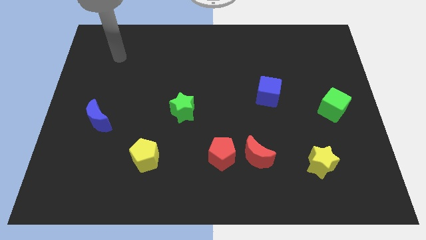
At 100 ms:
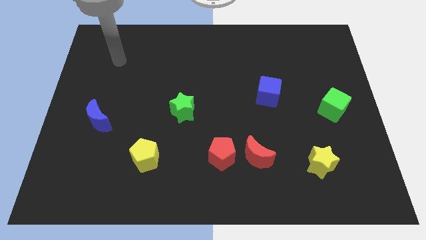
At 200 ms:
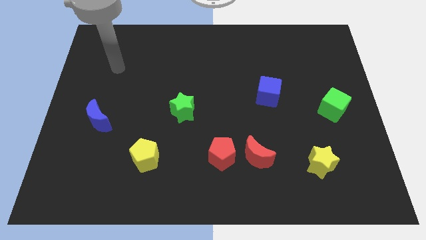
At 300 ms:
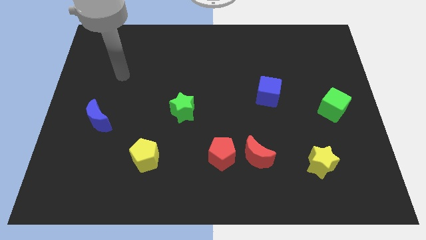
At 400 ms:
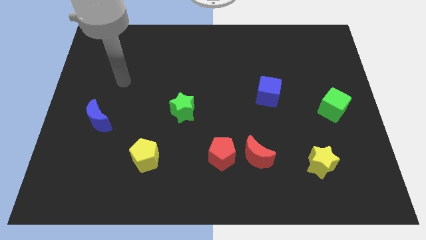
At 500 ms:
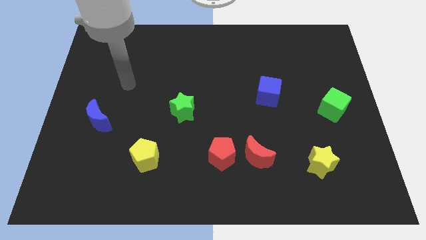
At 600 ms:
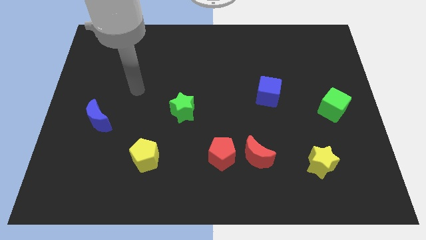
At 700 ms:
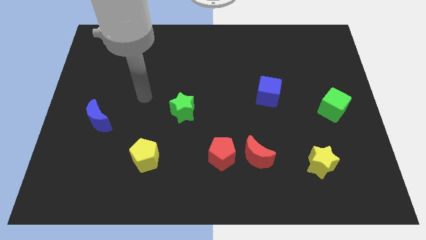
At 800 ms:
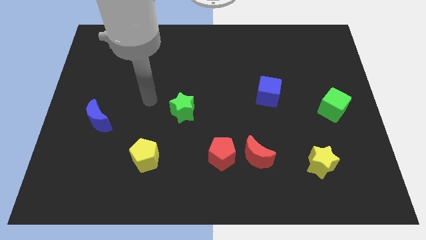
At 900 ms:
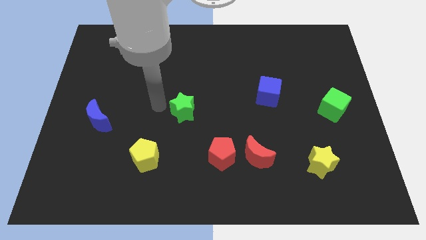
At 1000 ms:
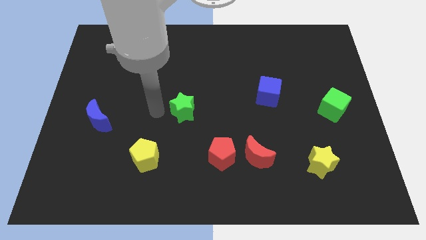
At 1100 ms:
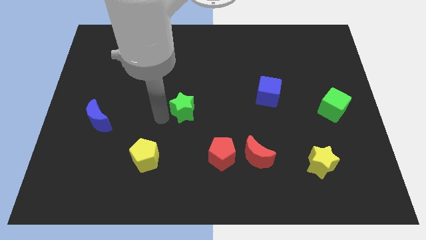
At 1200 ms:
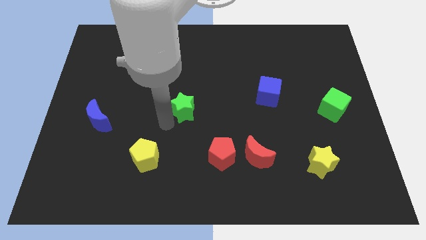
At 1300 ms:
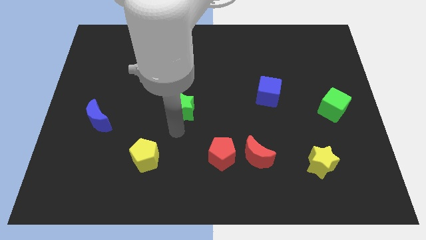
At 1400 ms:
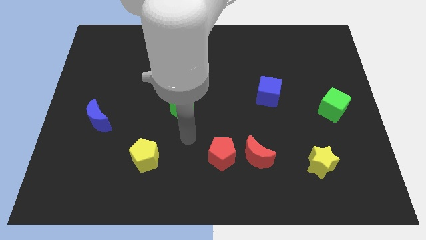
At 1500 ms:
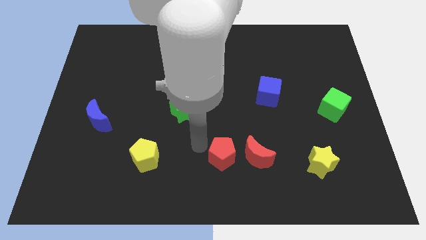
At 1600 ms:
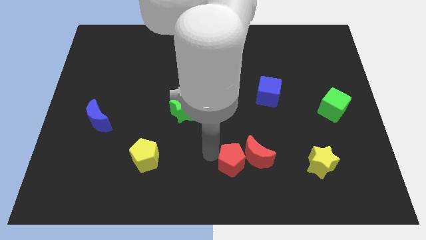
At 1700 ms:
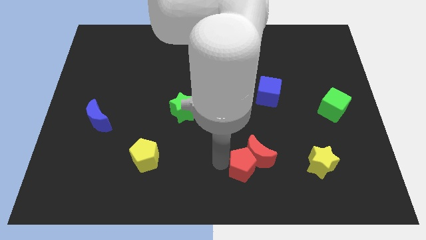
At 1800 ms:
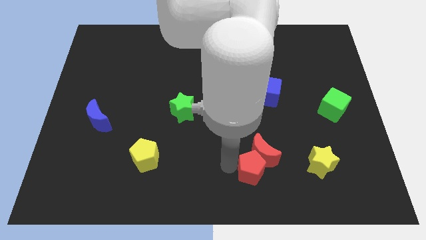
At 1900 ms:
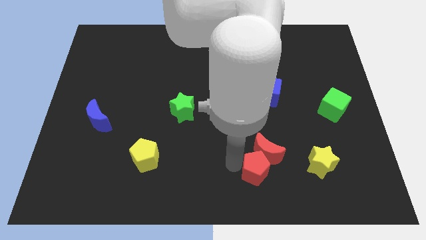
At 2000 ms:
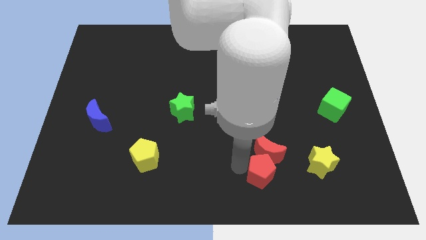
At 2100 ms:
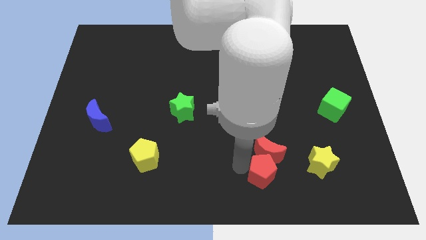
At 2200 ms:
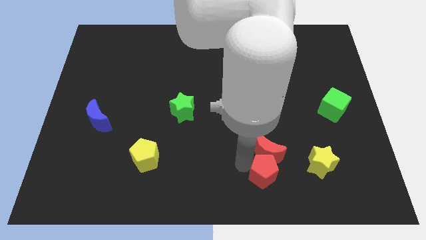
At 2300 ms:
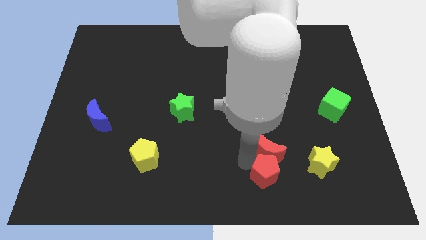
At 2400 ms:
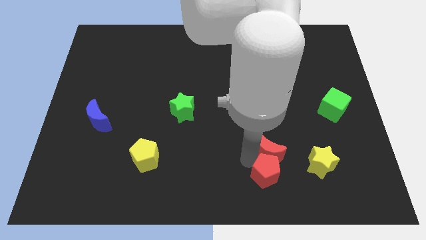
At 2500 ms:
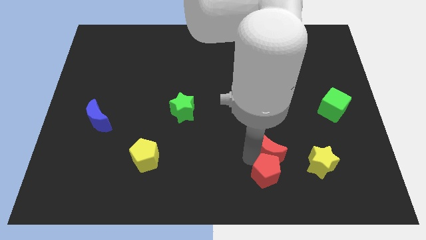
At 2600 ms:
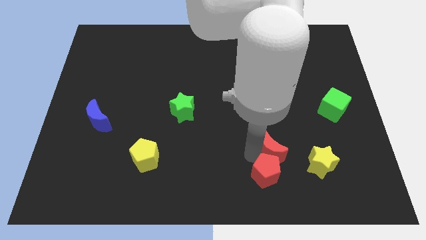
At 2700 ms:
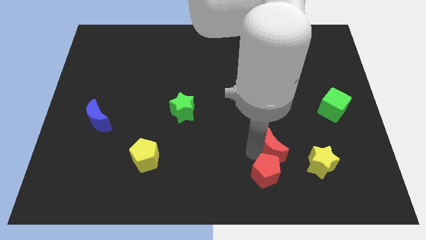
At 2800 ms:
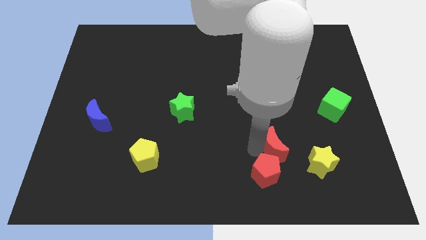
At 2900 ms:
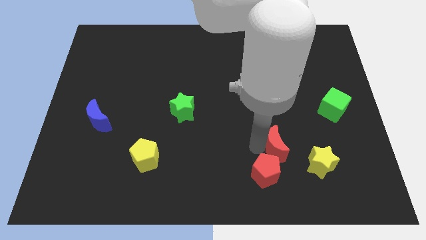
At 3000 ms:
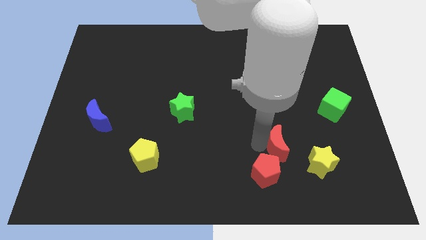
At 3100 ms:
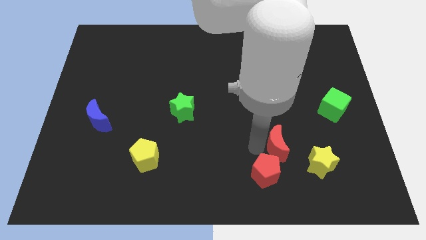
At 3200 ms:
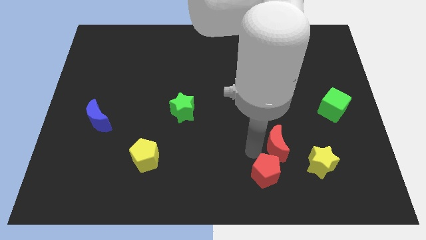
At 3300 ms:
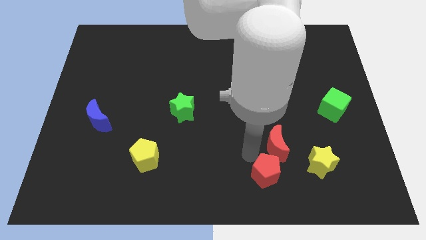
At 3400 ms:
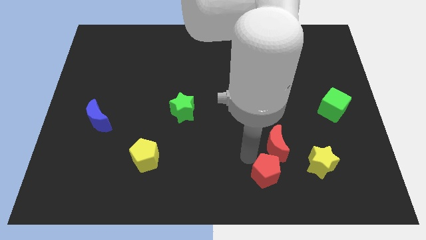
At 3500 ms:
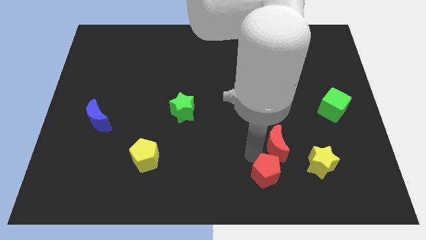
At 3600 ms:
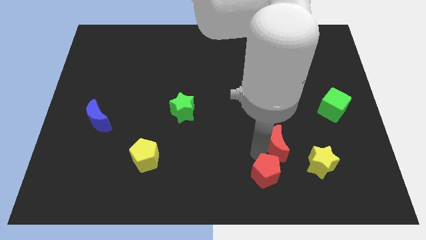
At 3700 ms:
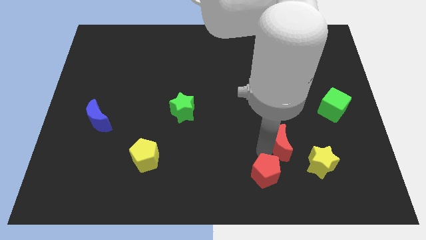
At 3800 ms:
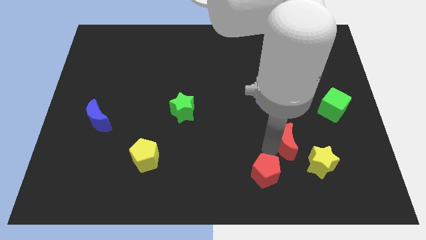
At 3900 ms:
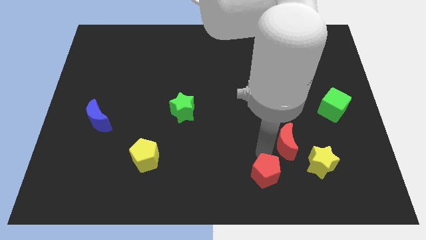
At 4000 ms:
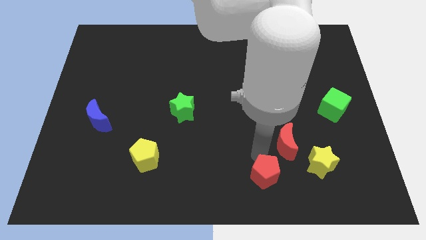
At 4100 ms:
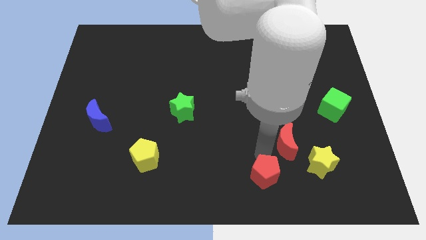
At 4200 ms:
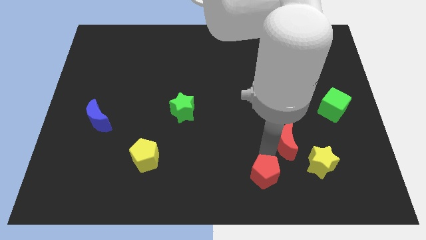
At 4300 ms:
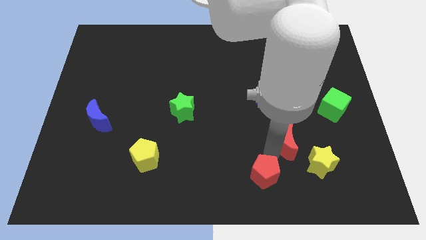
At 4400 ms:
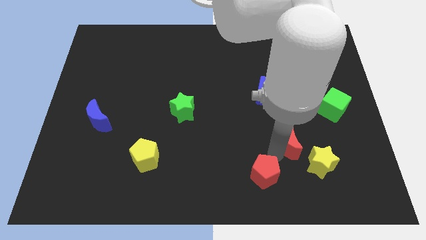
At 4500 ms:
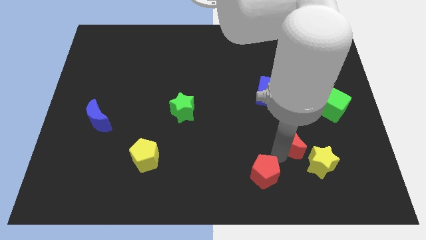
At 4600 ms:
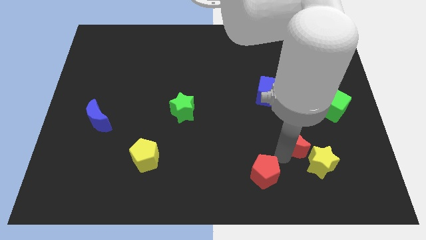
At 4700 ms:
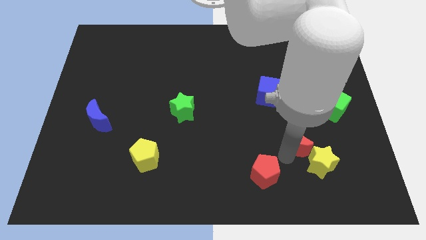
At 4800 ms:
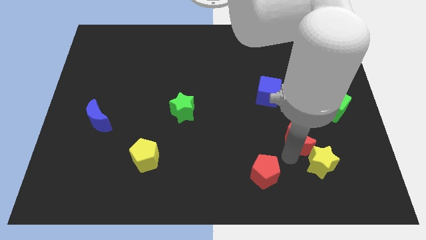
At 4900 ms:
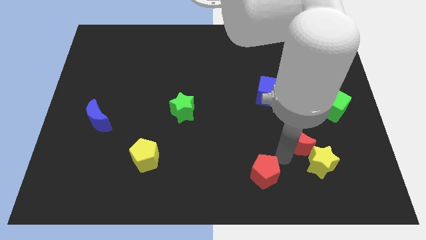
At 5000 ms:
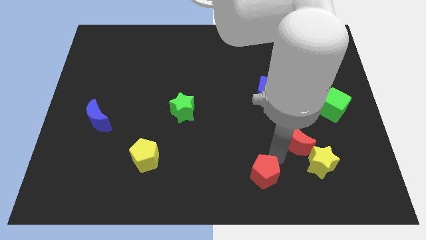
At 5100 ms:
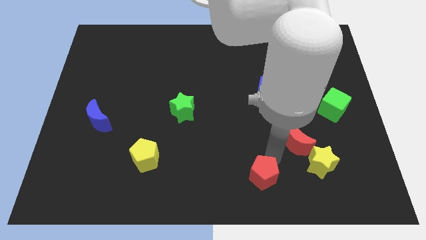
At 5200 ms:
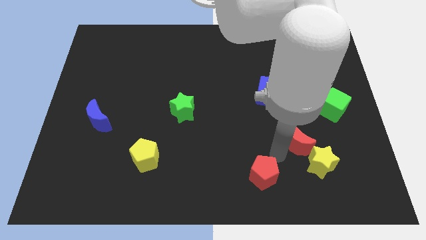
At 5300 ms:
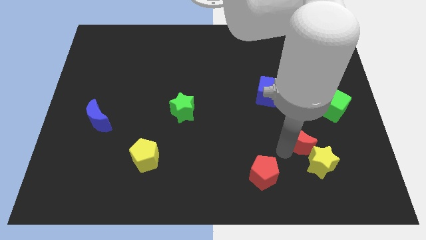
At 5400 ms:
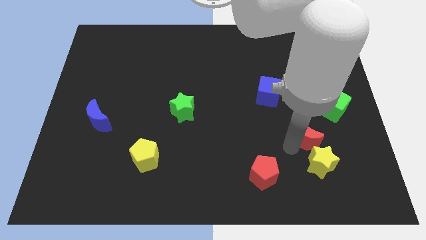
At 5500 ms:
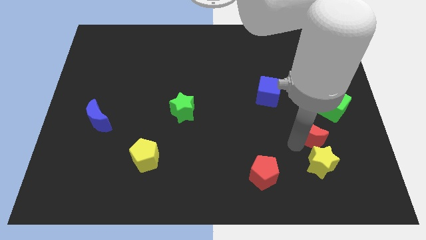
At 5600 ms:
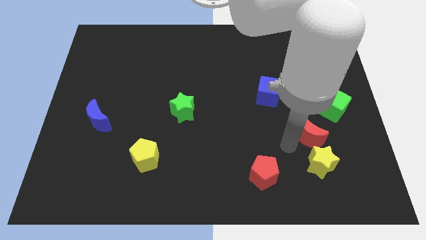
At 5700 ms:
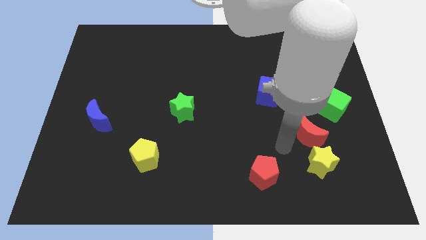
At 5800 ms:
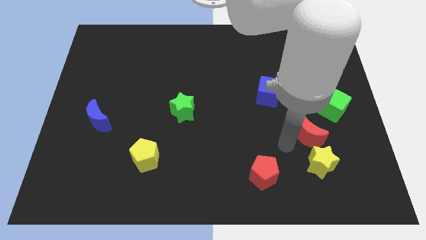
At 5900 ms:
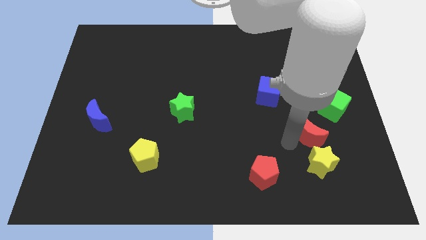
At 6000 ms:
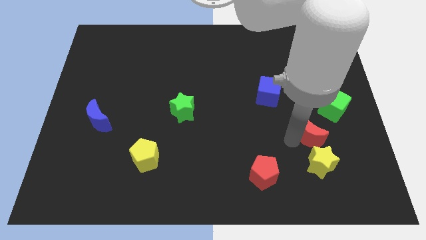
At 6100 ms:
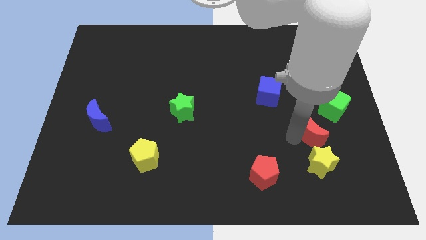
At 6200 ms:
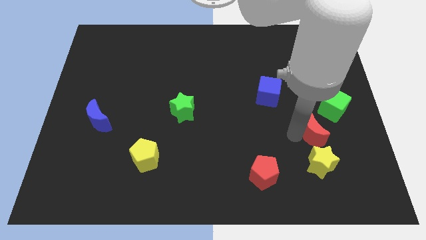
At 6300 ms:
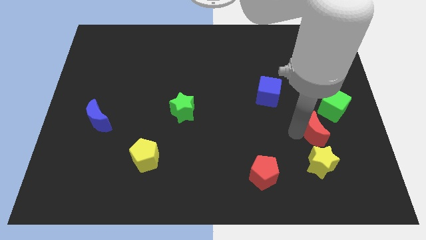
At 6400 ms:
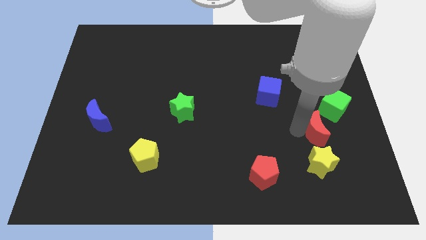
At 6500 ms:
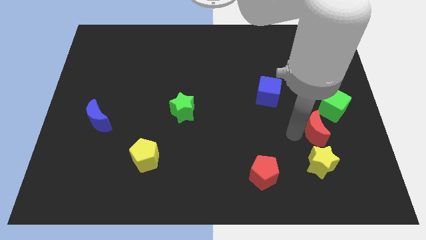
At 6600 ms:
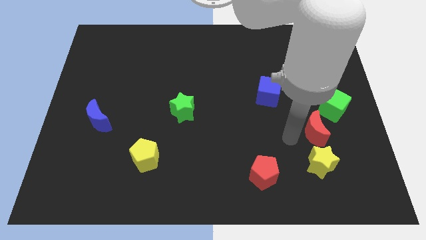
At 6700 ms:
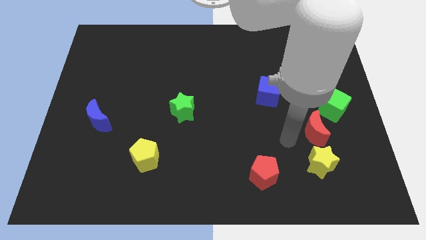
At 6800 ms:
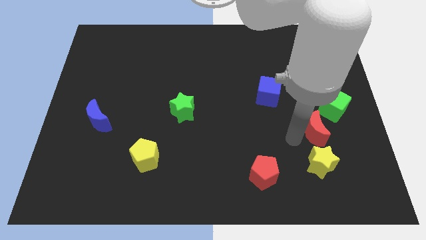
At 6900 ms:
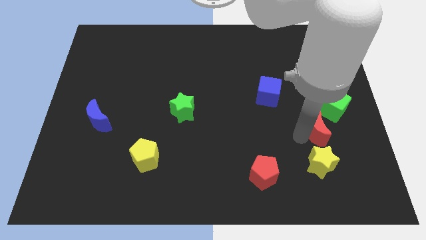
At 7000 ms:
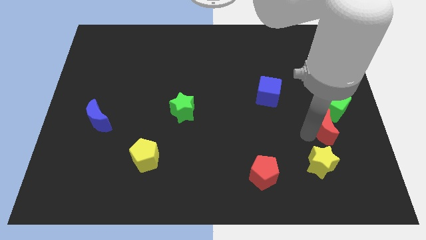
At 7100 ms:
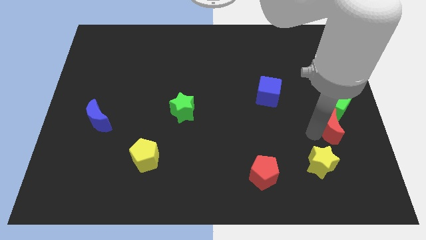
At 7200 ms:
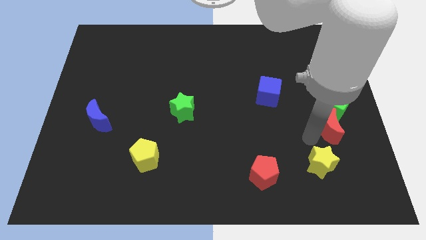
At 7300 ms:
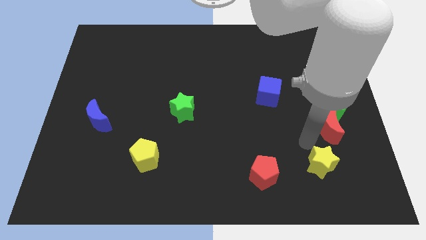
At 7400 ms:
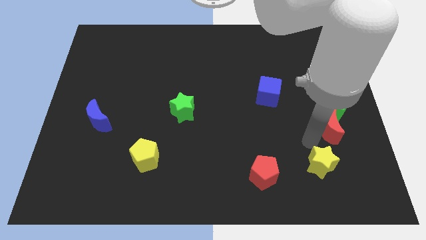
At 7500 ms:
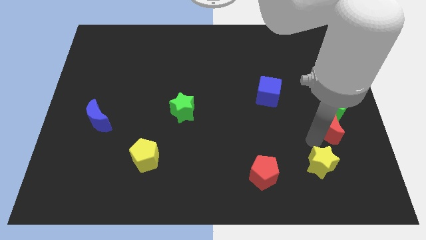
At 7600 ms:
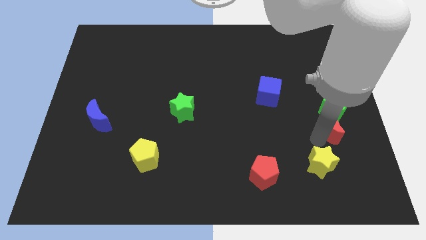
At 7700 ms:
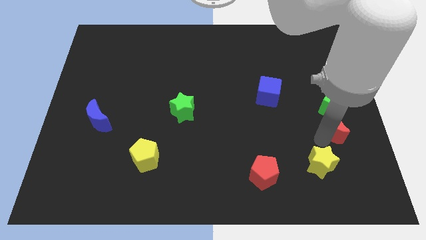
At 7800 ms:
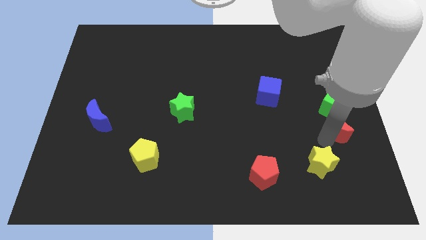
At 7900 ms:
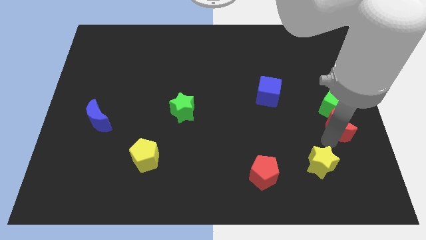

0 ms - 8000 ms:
push the red moon to the center right
